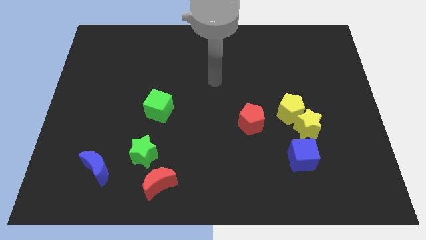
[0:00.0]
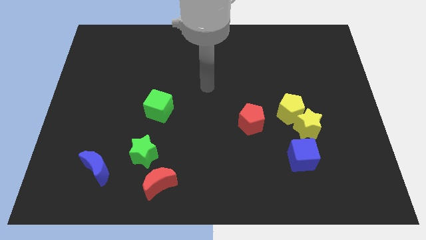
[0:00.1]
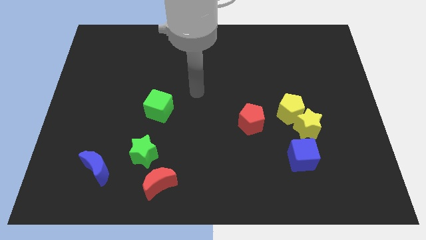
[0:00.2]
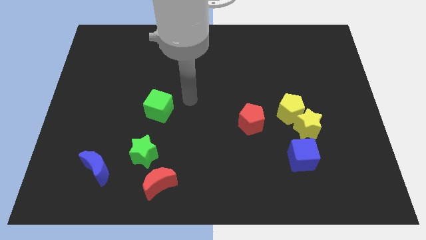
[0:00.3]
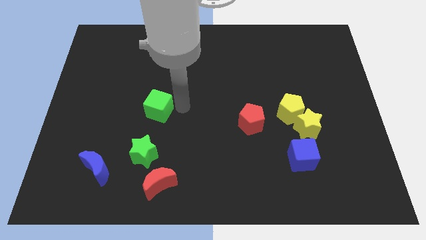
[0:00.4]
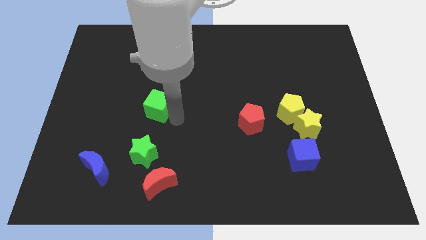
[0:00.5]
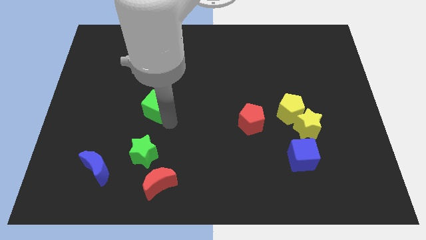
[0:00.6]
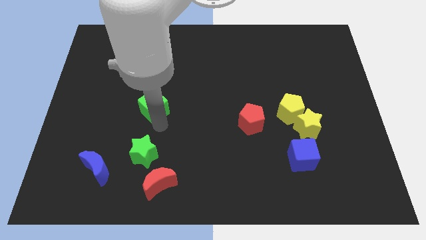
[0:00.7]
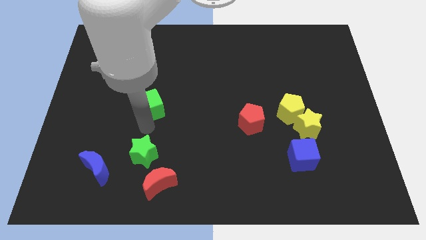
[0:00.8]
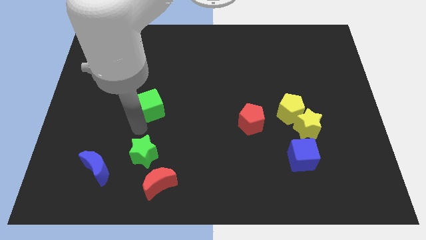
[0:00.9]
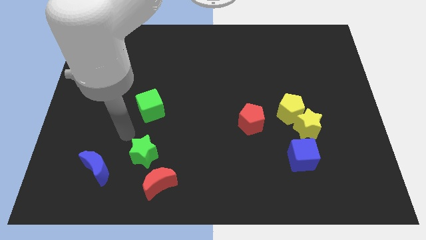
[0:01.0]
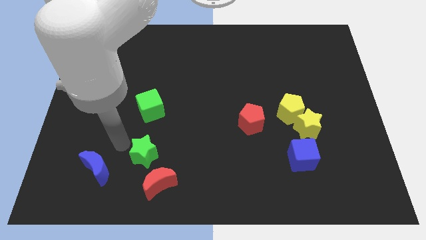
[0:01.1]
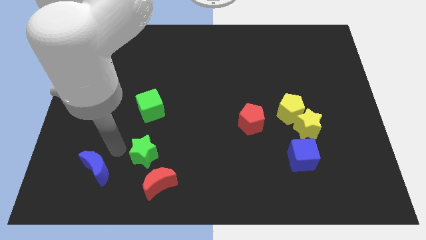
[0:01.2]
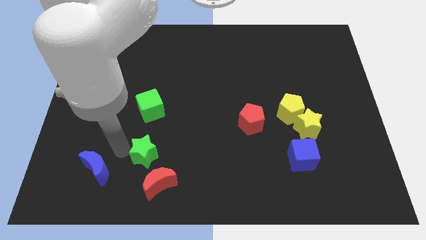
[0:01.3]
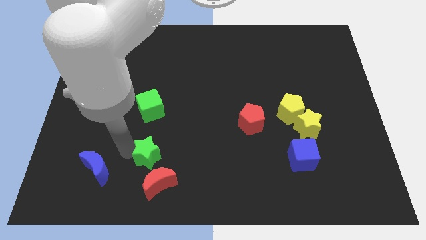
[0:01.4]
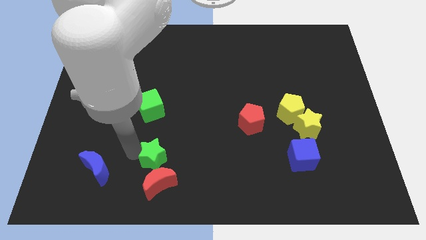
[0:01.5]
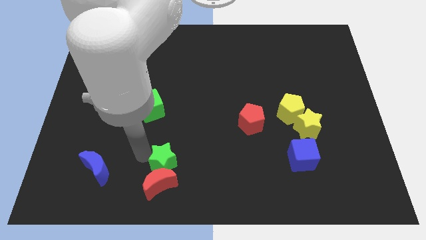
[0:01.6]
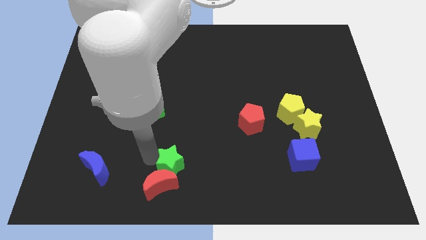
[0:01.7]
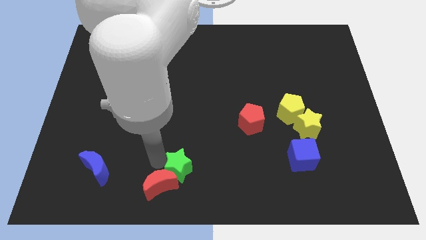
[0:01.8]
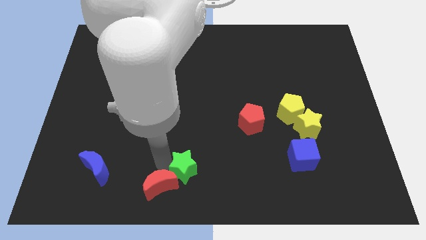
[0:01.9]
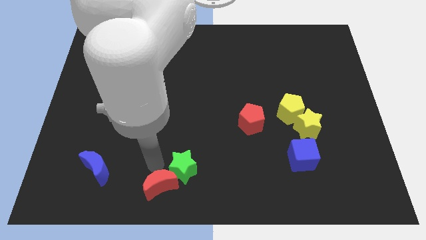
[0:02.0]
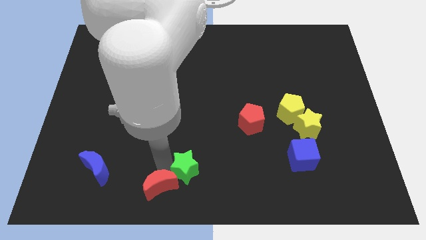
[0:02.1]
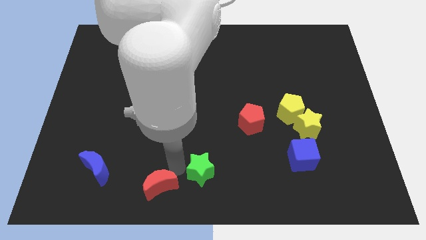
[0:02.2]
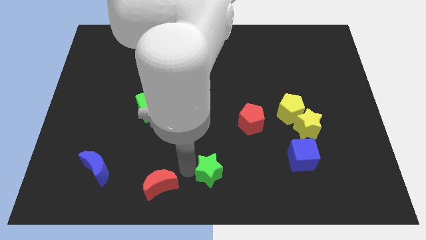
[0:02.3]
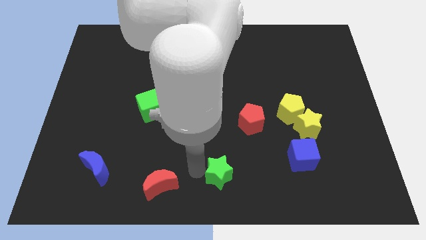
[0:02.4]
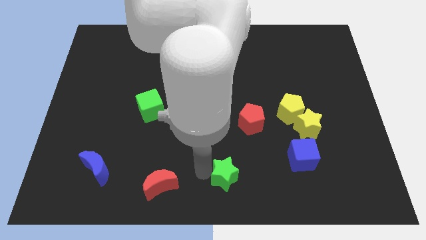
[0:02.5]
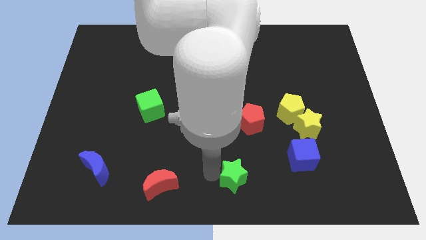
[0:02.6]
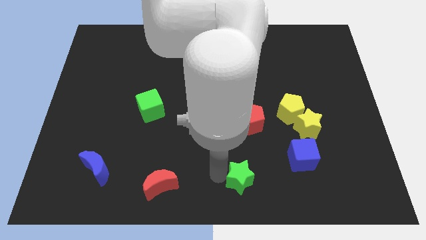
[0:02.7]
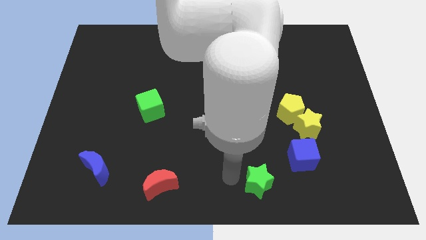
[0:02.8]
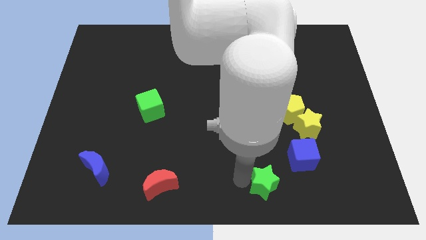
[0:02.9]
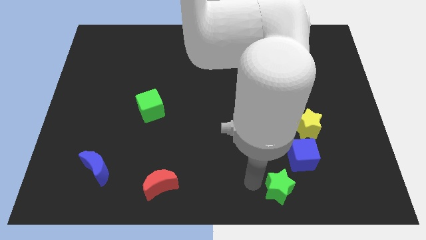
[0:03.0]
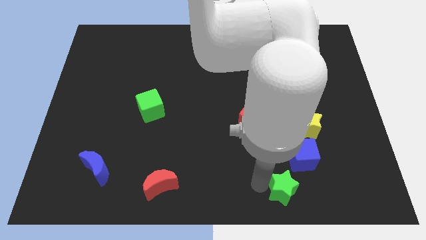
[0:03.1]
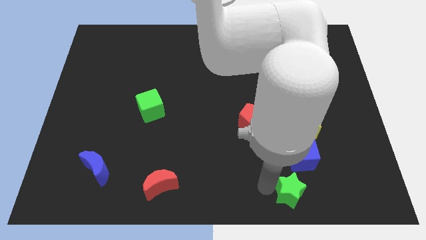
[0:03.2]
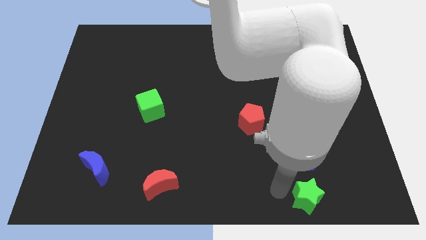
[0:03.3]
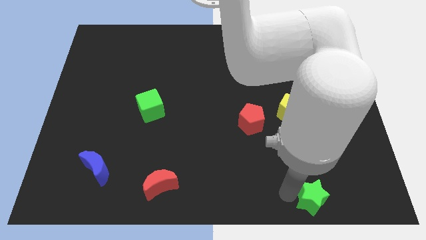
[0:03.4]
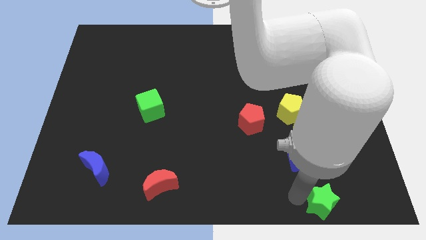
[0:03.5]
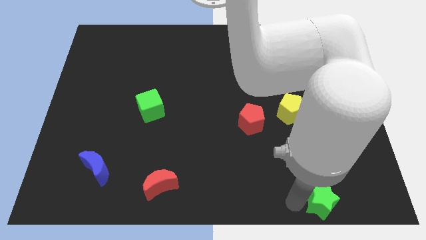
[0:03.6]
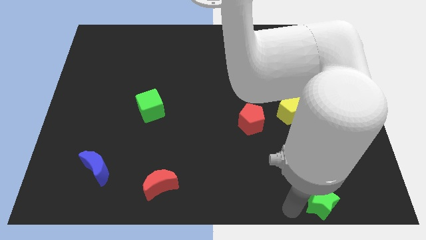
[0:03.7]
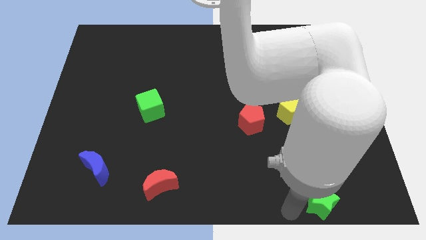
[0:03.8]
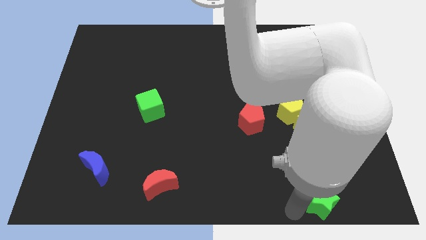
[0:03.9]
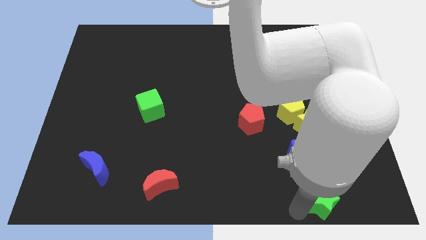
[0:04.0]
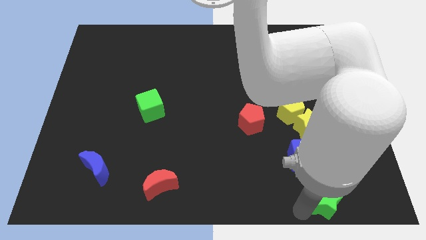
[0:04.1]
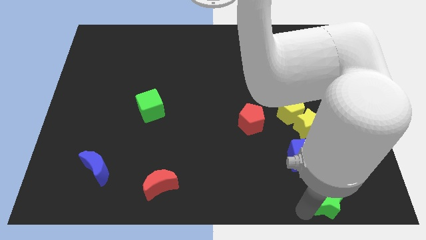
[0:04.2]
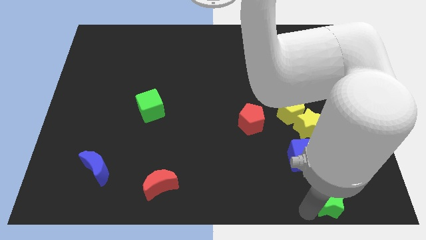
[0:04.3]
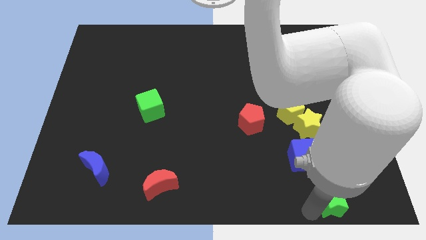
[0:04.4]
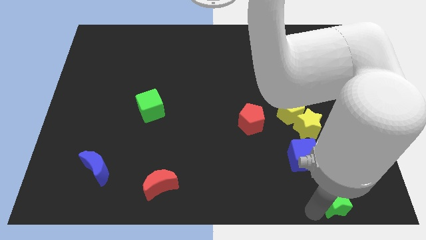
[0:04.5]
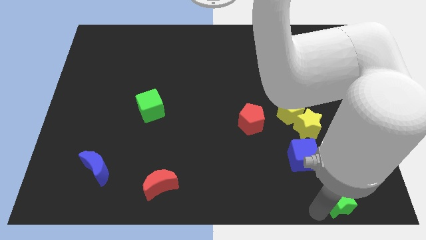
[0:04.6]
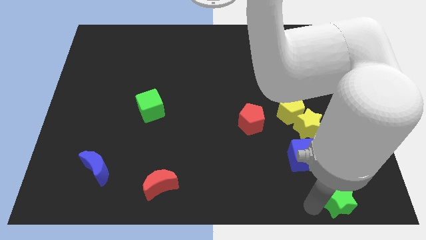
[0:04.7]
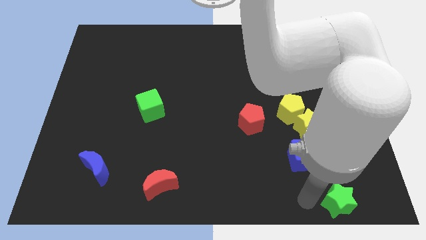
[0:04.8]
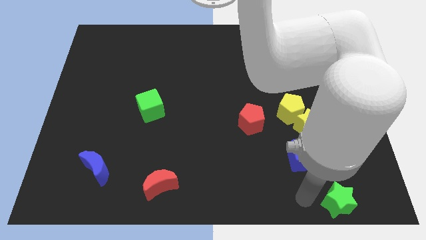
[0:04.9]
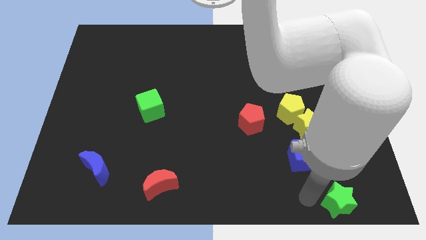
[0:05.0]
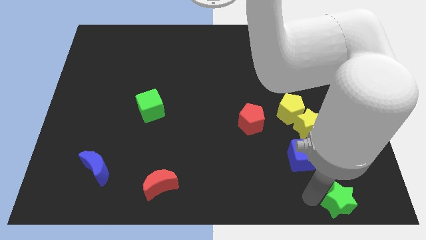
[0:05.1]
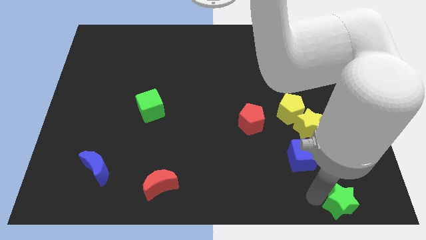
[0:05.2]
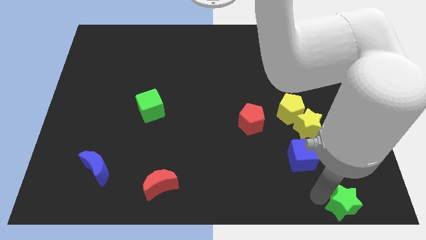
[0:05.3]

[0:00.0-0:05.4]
push the green star to the bottom right of the board

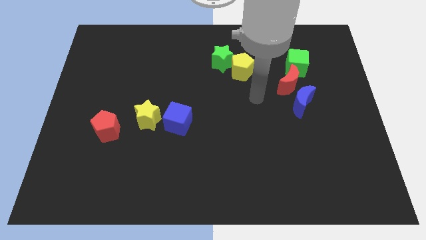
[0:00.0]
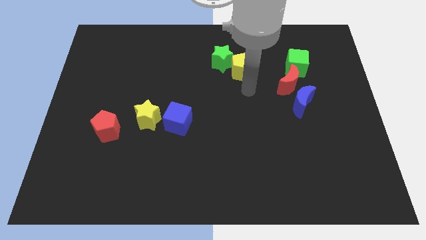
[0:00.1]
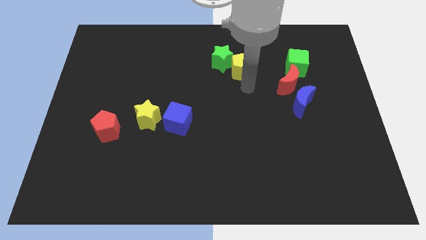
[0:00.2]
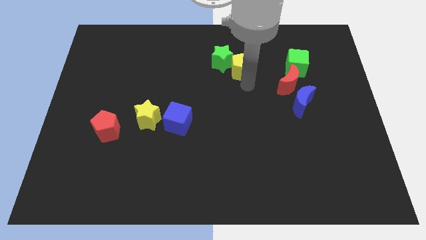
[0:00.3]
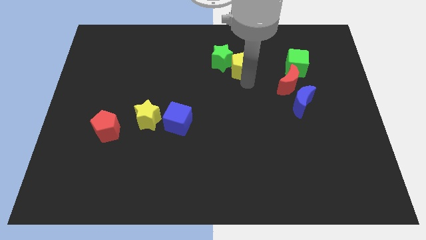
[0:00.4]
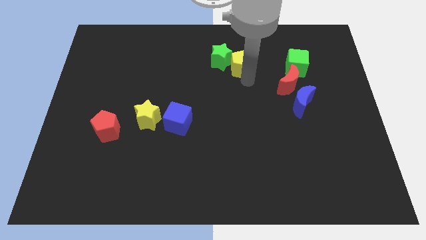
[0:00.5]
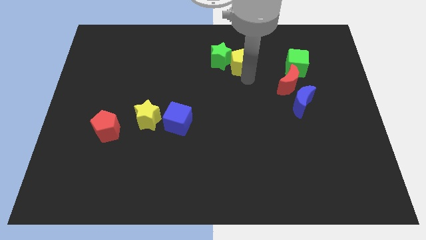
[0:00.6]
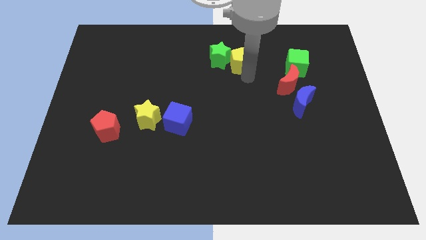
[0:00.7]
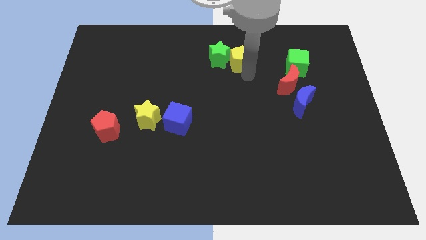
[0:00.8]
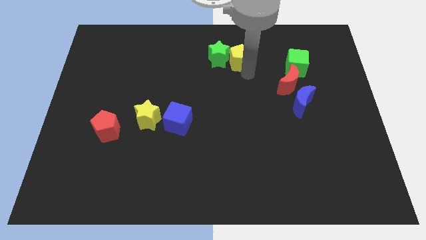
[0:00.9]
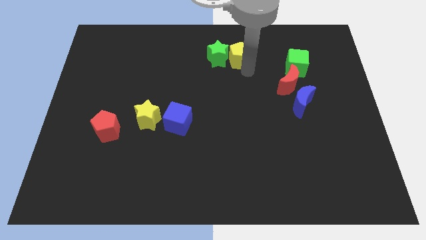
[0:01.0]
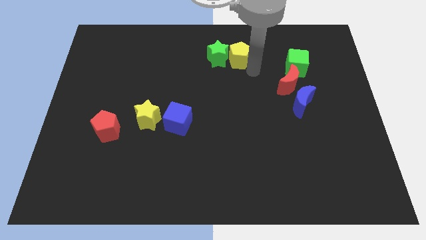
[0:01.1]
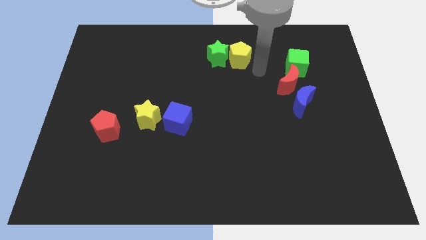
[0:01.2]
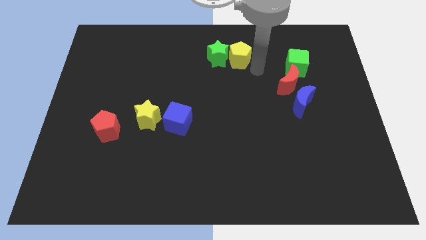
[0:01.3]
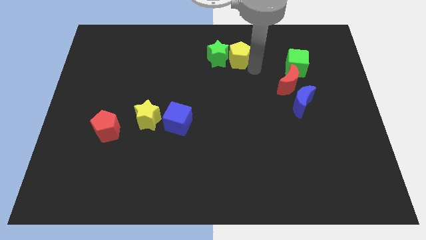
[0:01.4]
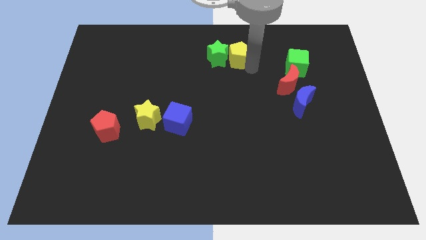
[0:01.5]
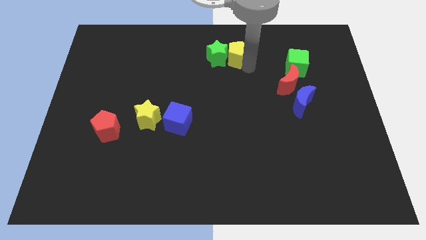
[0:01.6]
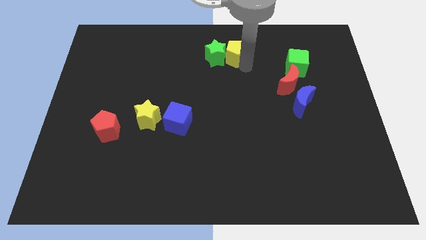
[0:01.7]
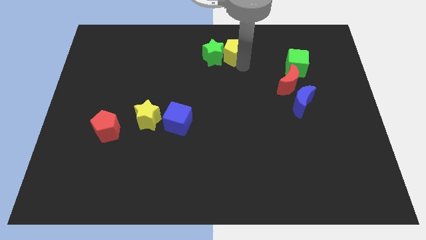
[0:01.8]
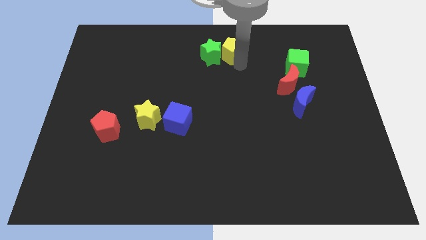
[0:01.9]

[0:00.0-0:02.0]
move the yellow pentagon to the towards your base

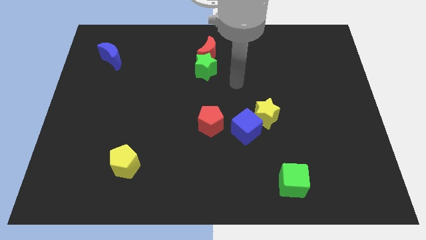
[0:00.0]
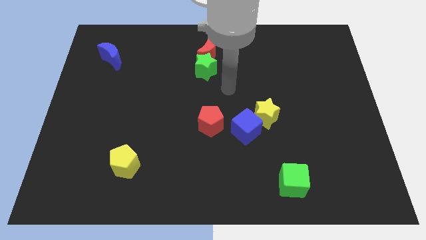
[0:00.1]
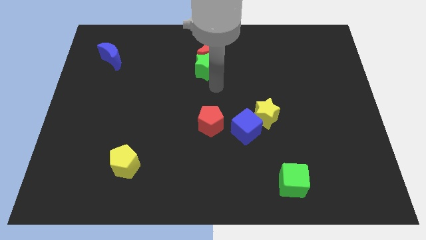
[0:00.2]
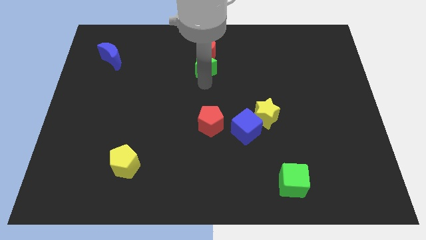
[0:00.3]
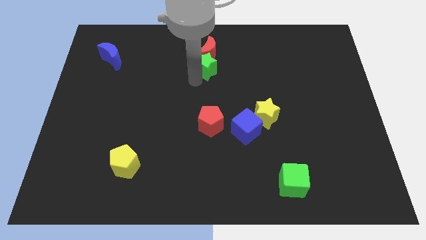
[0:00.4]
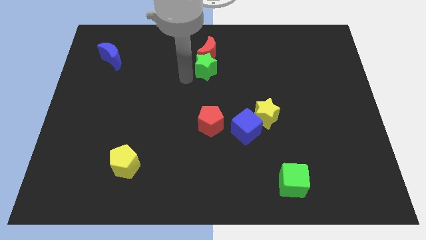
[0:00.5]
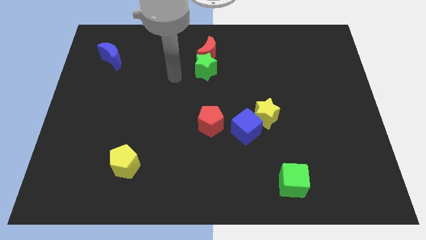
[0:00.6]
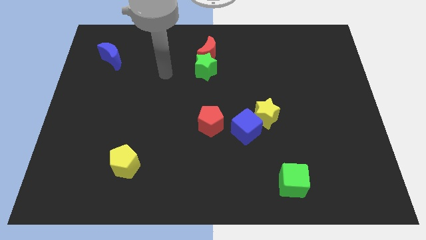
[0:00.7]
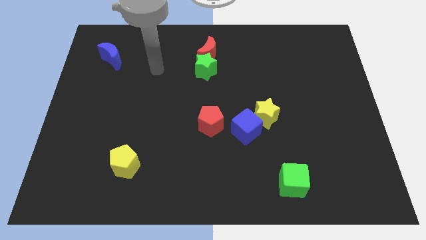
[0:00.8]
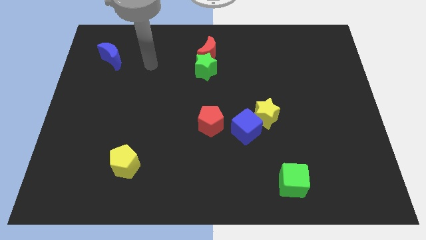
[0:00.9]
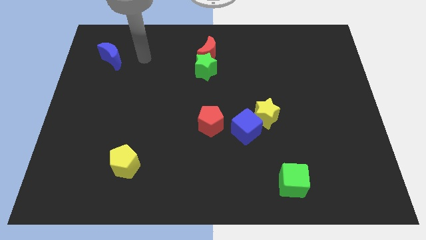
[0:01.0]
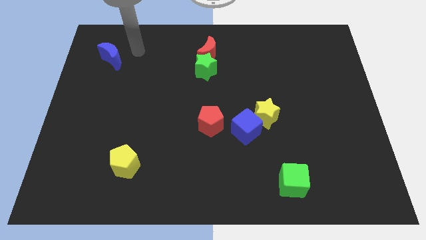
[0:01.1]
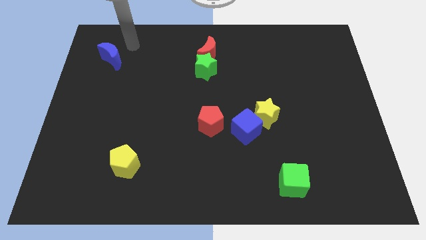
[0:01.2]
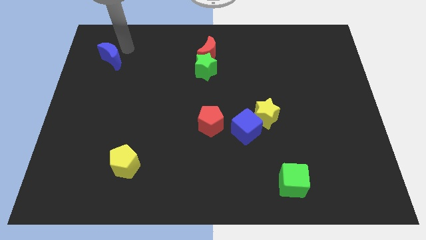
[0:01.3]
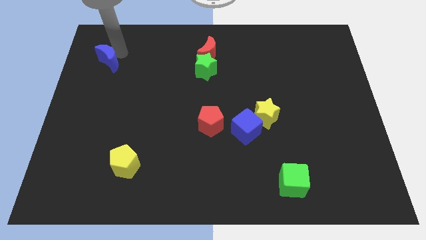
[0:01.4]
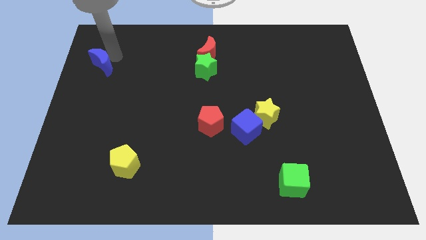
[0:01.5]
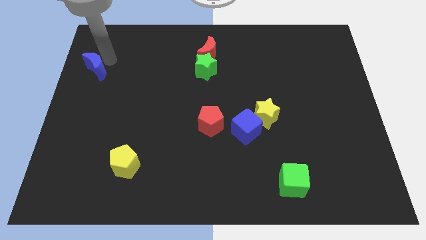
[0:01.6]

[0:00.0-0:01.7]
push the blue moon to the left side
